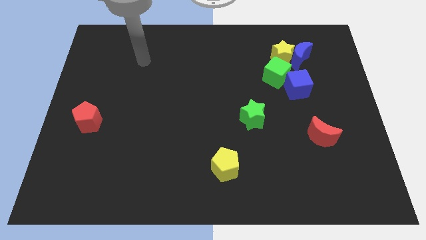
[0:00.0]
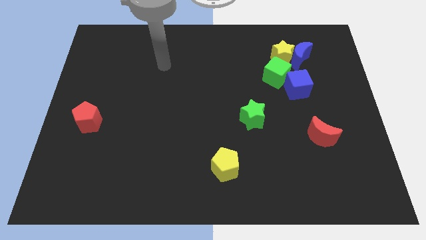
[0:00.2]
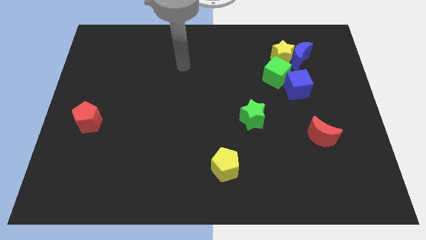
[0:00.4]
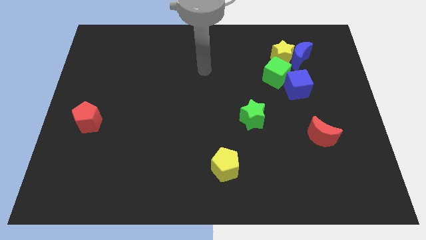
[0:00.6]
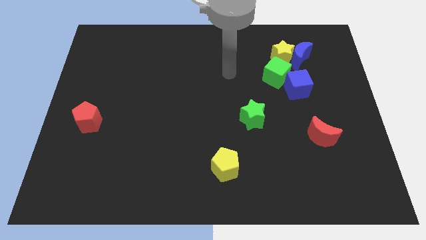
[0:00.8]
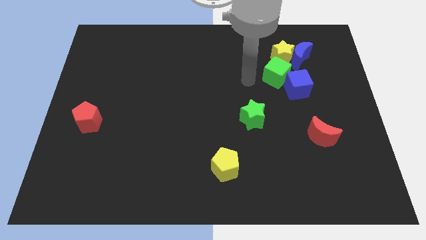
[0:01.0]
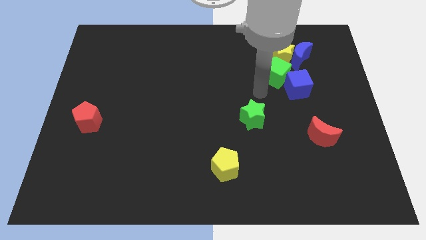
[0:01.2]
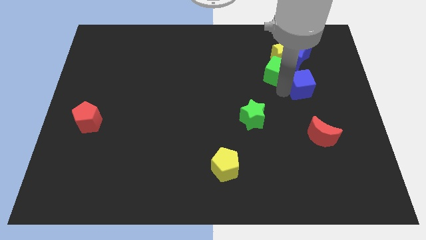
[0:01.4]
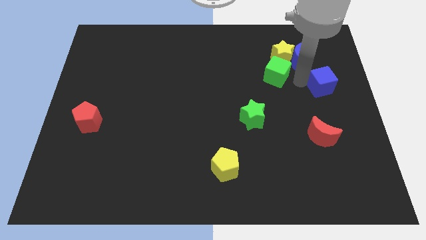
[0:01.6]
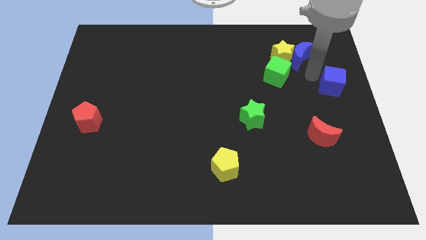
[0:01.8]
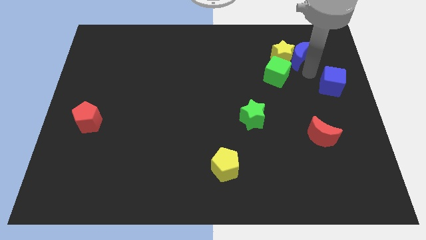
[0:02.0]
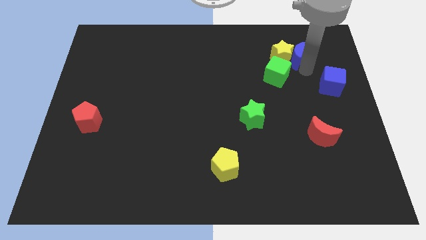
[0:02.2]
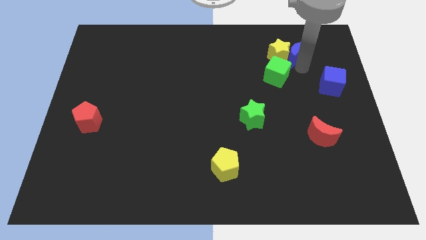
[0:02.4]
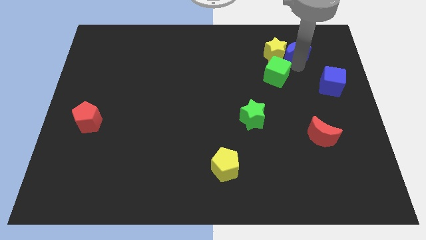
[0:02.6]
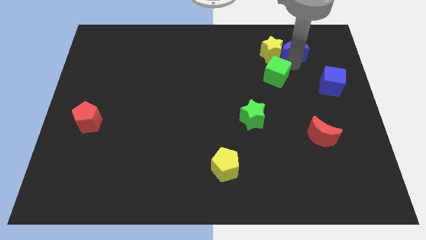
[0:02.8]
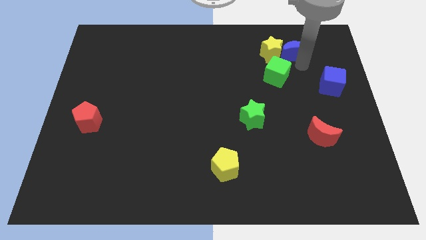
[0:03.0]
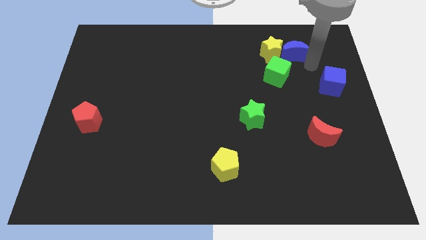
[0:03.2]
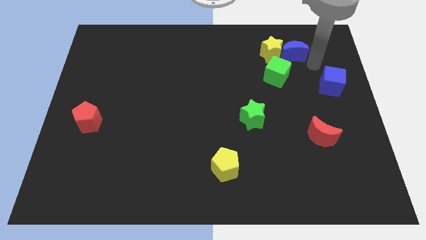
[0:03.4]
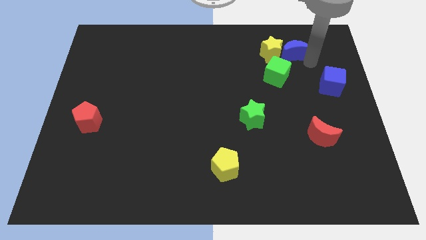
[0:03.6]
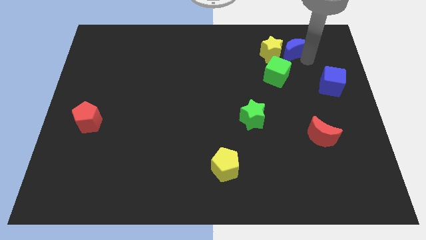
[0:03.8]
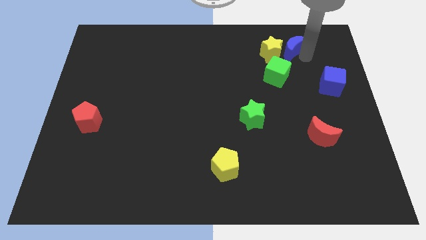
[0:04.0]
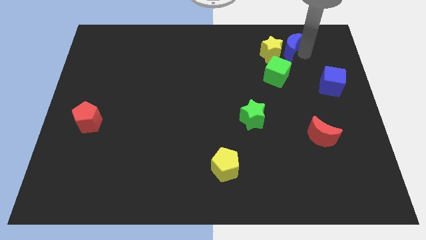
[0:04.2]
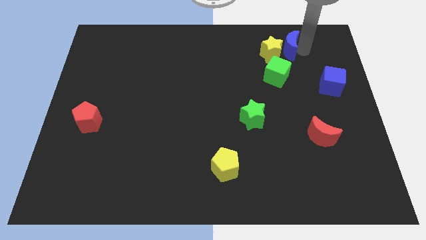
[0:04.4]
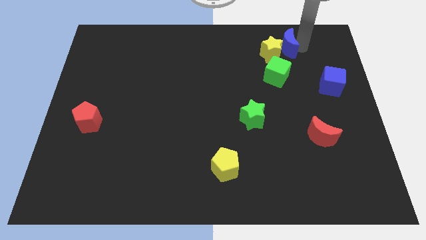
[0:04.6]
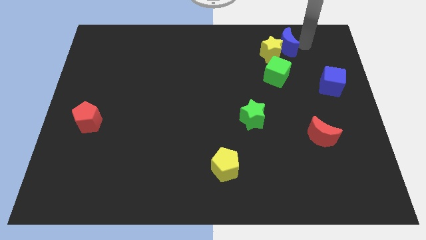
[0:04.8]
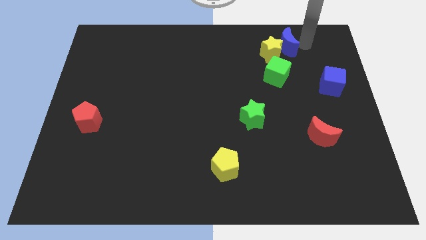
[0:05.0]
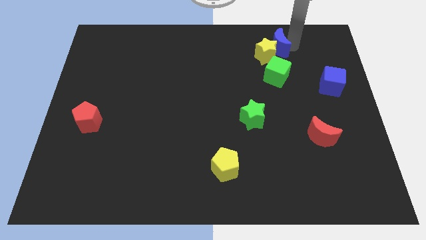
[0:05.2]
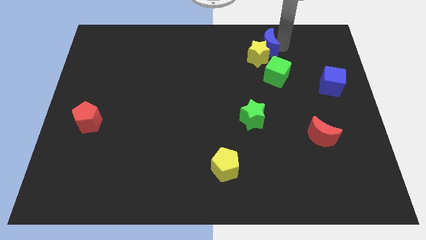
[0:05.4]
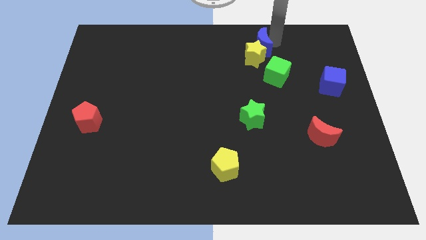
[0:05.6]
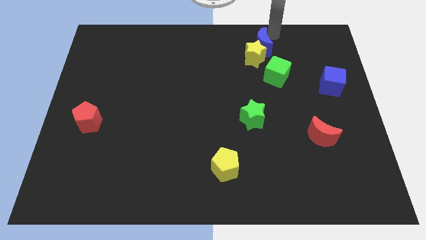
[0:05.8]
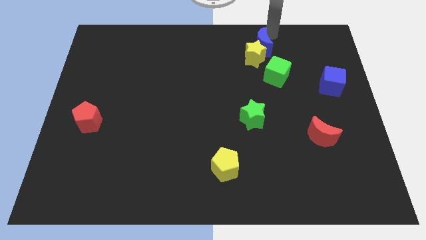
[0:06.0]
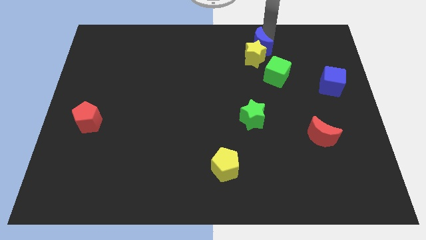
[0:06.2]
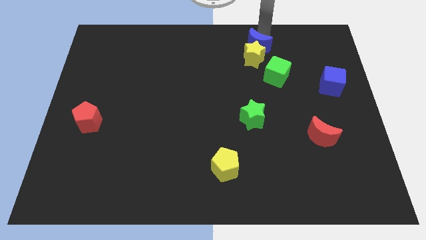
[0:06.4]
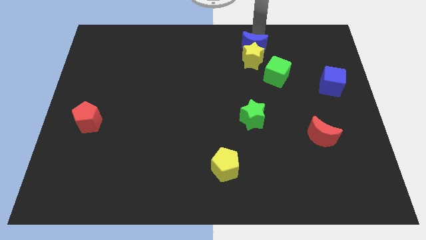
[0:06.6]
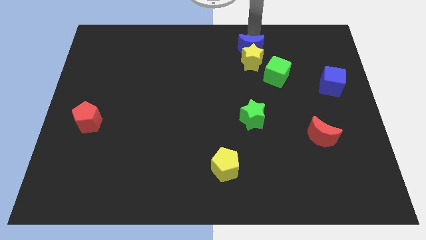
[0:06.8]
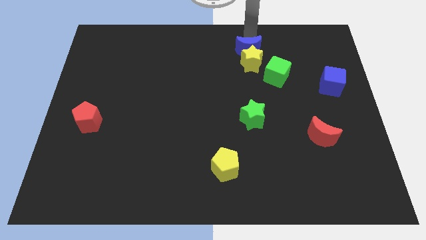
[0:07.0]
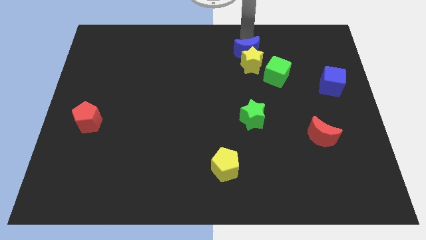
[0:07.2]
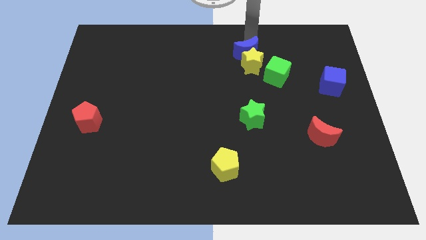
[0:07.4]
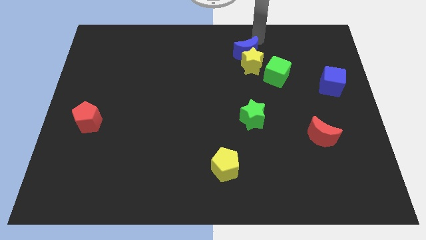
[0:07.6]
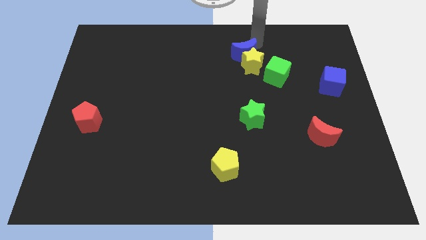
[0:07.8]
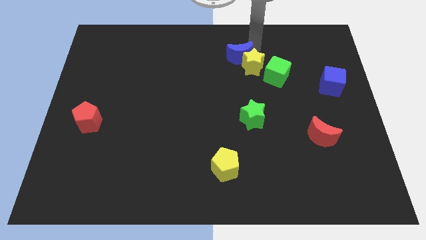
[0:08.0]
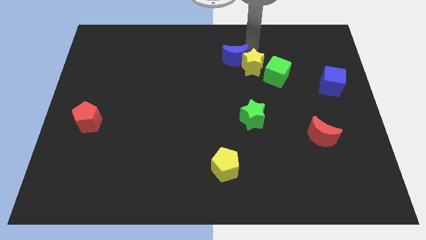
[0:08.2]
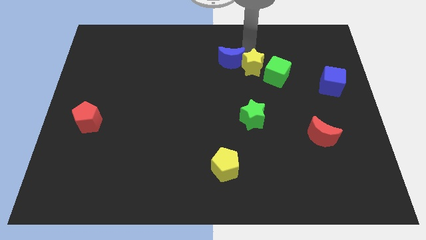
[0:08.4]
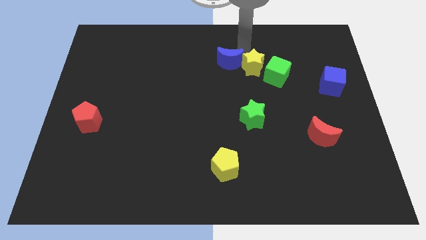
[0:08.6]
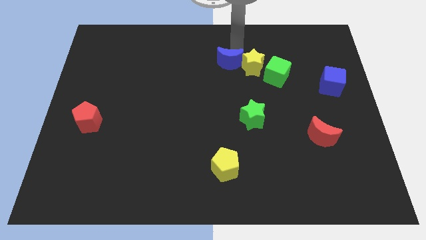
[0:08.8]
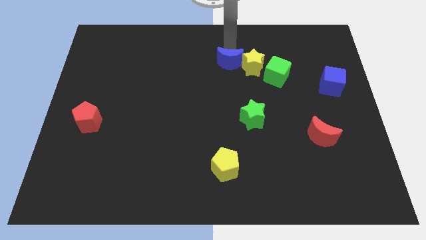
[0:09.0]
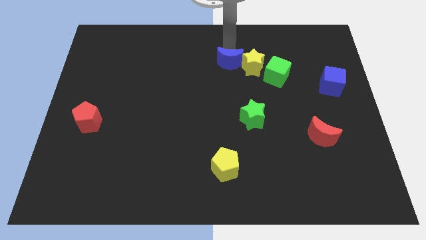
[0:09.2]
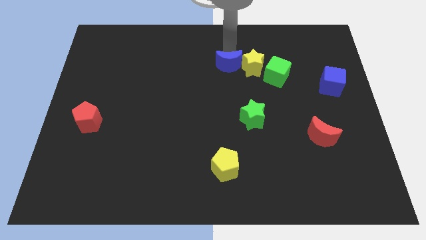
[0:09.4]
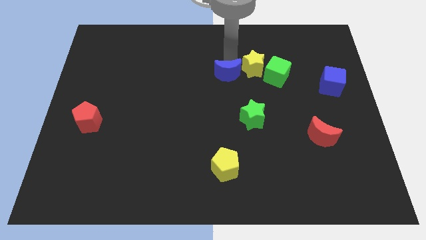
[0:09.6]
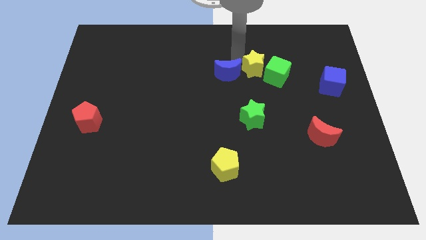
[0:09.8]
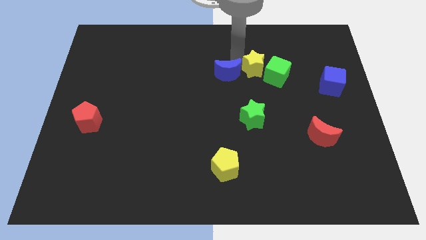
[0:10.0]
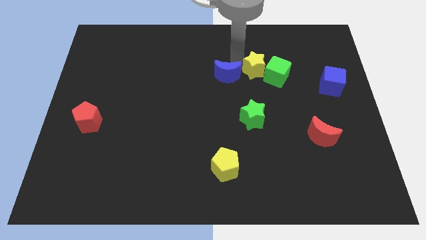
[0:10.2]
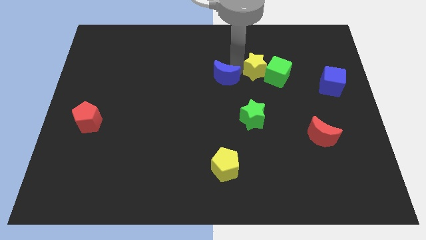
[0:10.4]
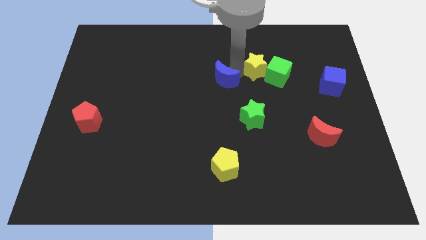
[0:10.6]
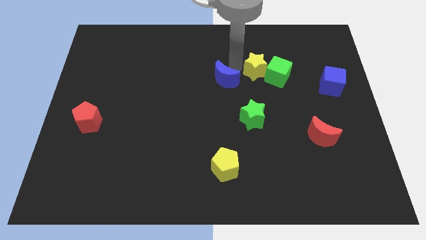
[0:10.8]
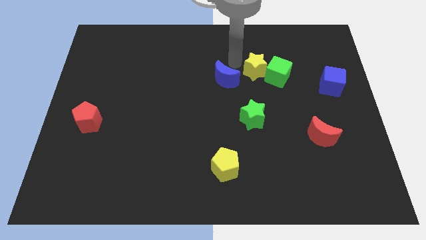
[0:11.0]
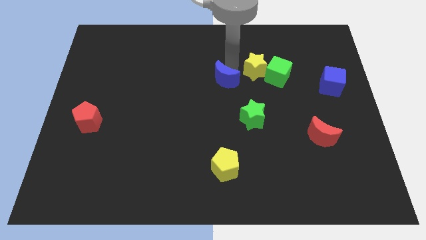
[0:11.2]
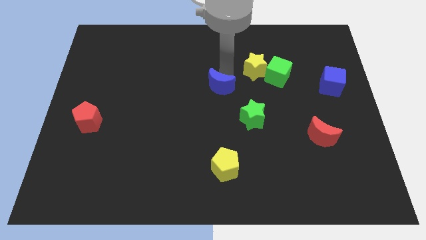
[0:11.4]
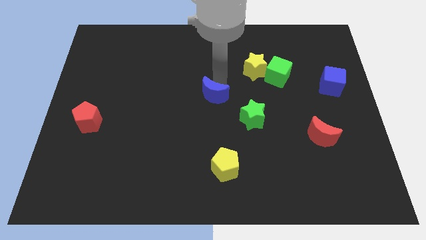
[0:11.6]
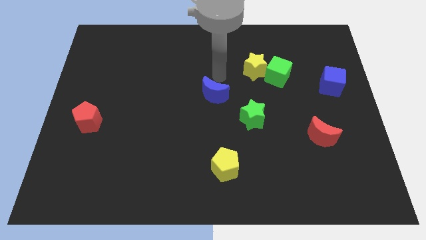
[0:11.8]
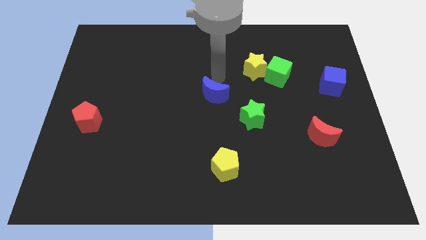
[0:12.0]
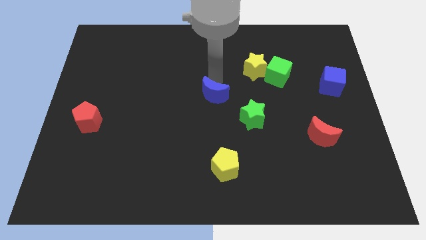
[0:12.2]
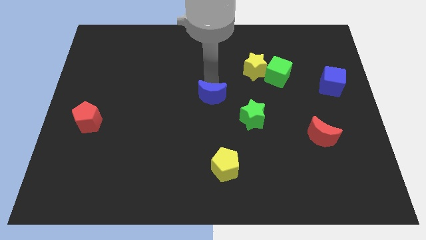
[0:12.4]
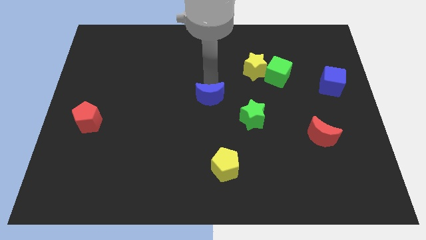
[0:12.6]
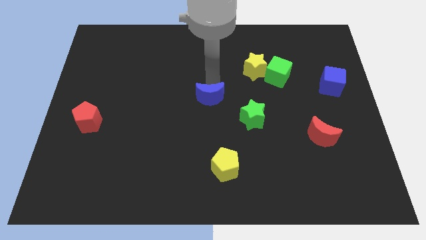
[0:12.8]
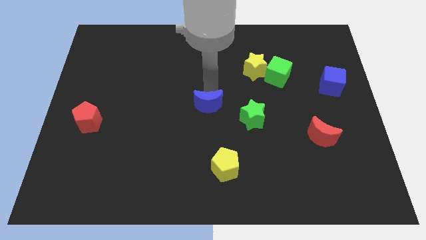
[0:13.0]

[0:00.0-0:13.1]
put the blue moon left of the green star
